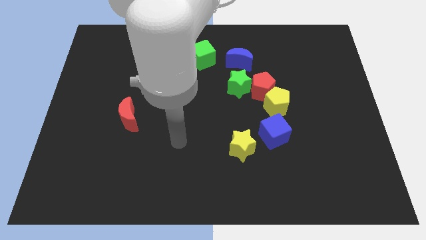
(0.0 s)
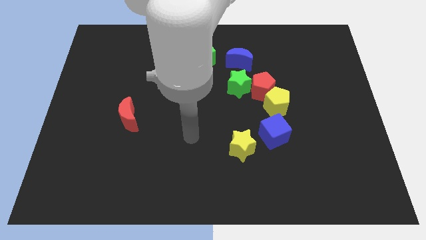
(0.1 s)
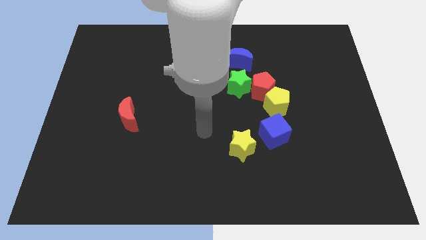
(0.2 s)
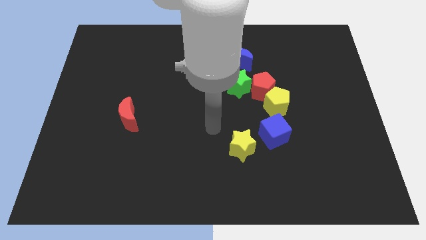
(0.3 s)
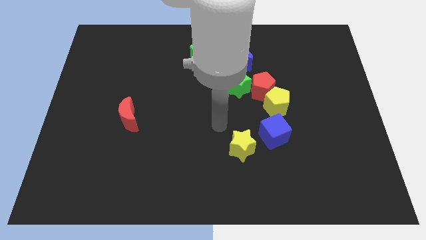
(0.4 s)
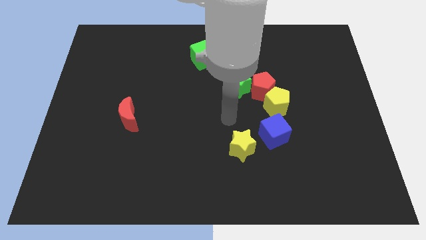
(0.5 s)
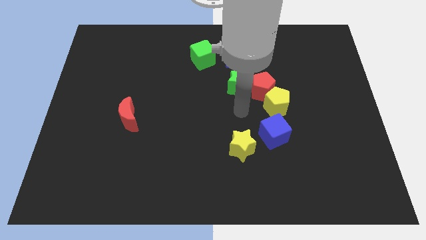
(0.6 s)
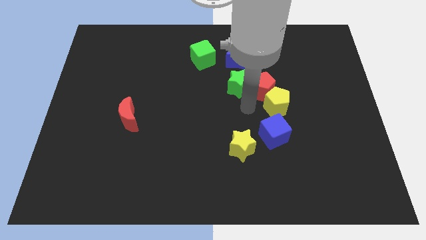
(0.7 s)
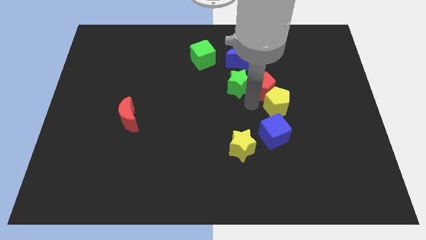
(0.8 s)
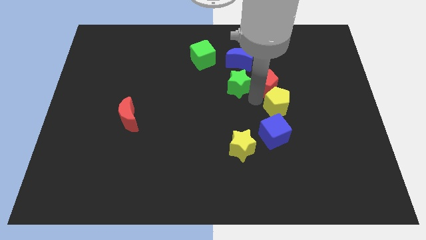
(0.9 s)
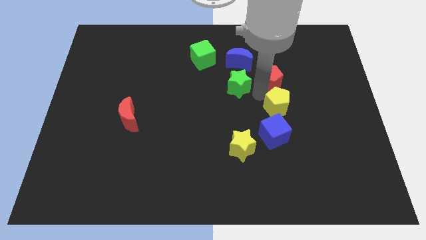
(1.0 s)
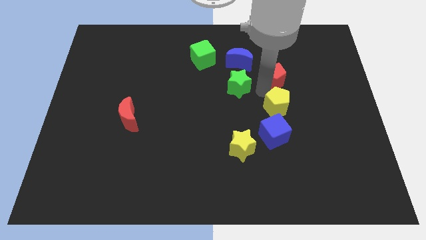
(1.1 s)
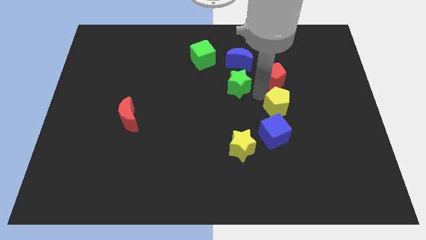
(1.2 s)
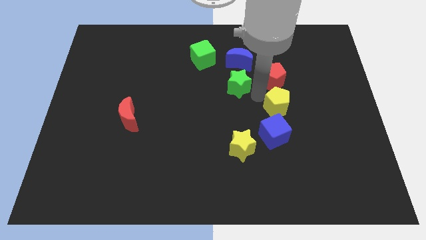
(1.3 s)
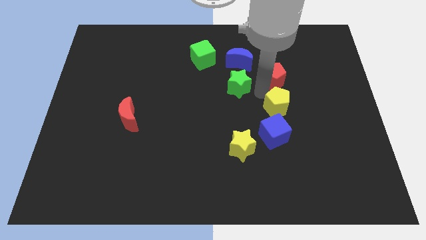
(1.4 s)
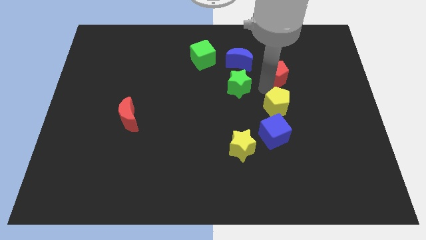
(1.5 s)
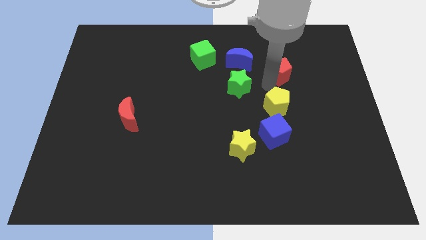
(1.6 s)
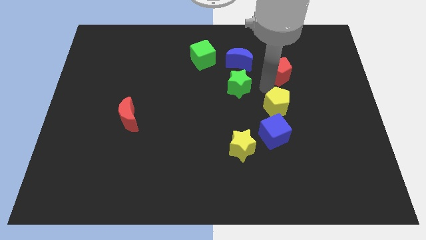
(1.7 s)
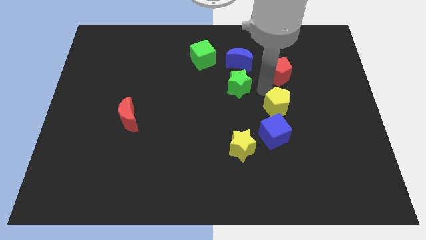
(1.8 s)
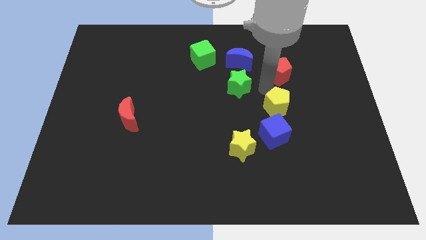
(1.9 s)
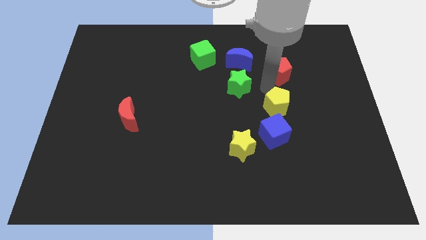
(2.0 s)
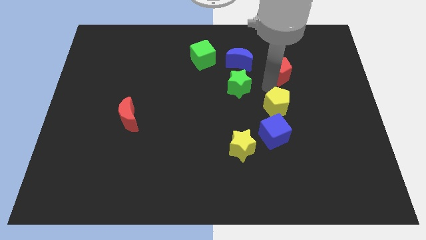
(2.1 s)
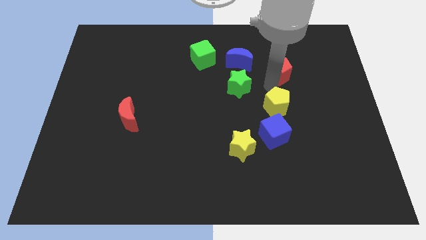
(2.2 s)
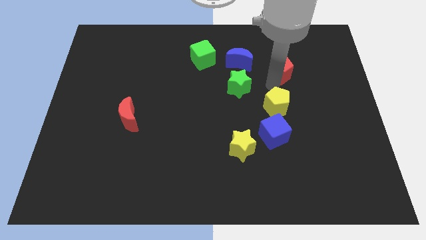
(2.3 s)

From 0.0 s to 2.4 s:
separate the red pentagon from the yellow pentagon and green star

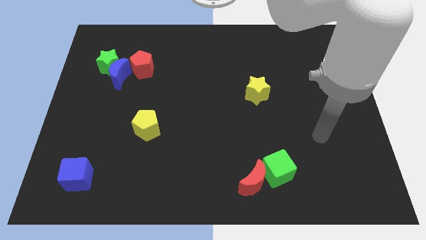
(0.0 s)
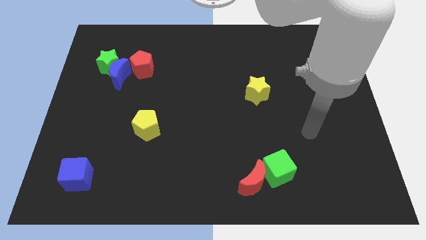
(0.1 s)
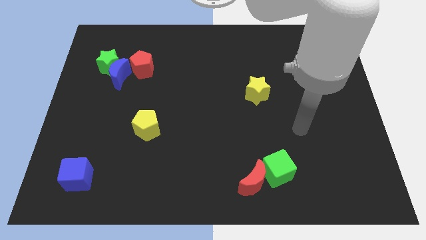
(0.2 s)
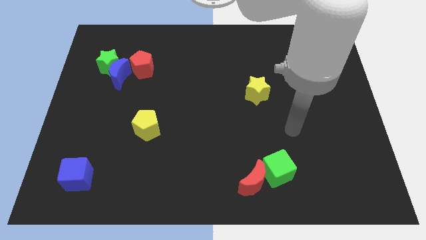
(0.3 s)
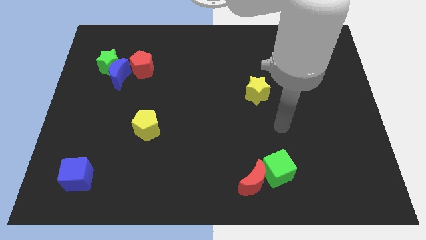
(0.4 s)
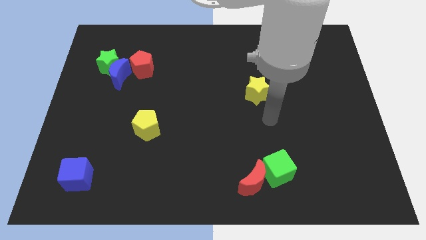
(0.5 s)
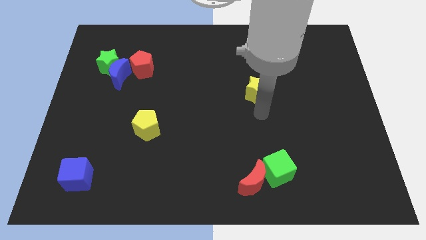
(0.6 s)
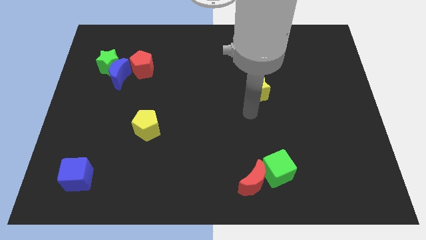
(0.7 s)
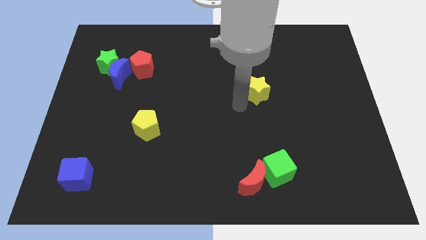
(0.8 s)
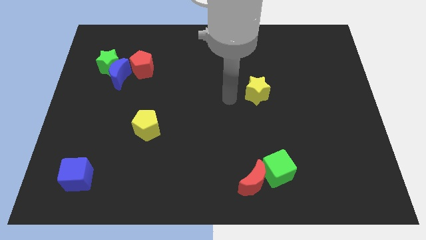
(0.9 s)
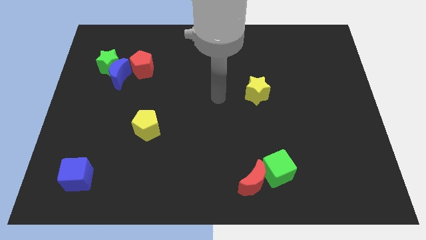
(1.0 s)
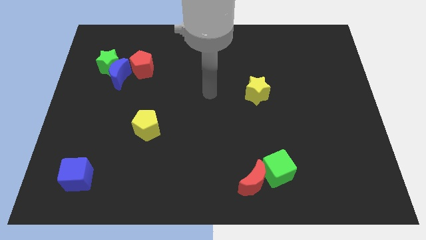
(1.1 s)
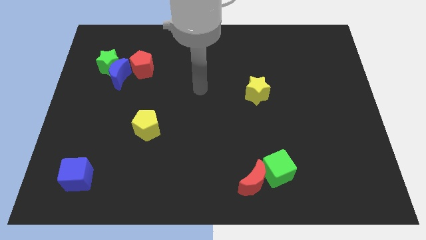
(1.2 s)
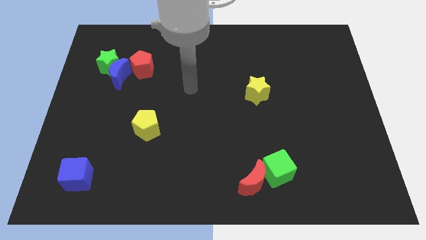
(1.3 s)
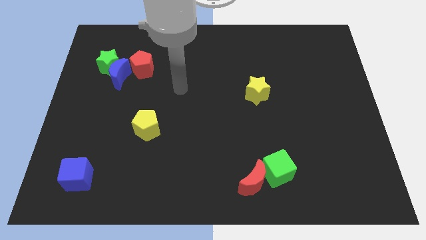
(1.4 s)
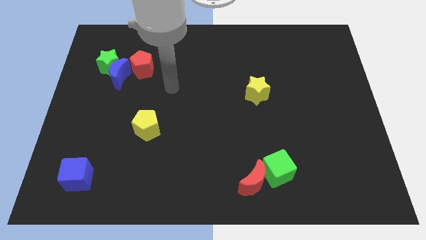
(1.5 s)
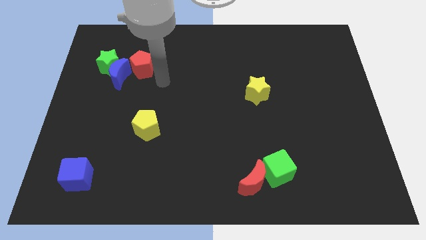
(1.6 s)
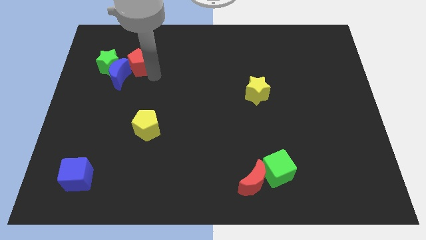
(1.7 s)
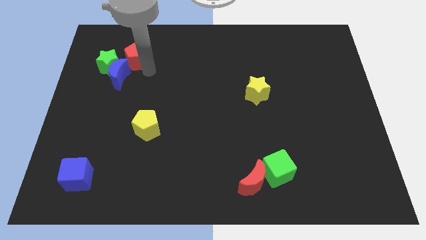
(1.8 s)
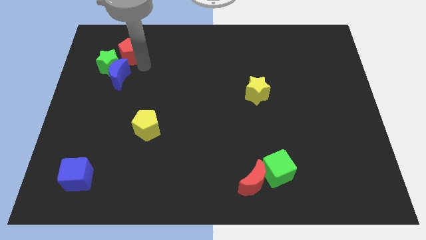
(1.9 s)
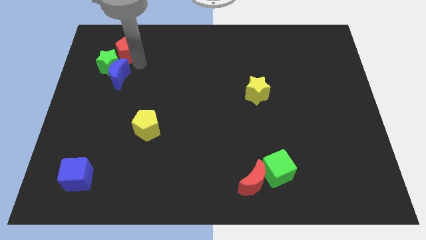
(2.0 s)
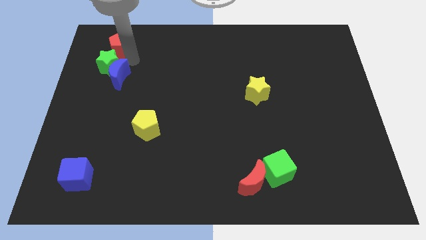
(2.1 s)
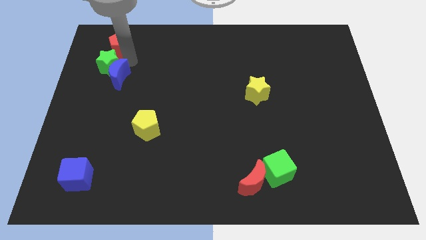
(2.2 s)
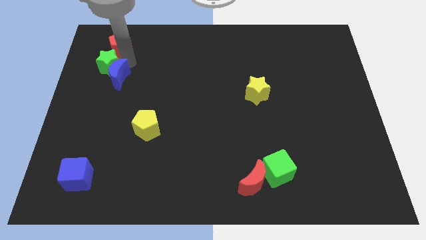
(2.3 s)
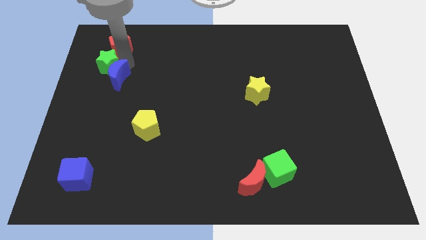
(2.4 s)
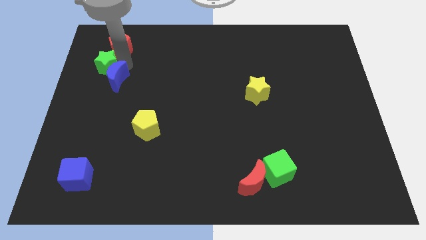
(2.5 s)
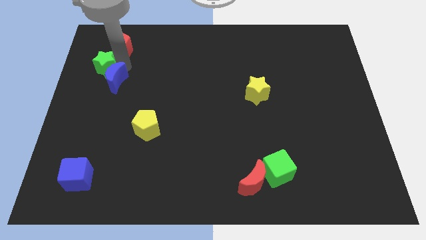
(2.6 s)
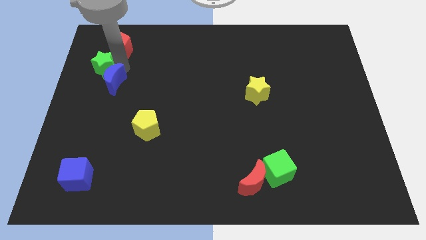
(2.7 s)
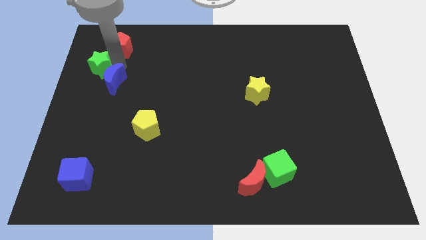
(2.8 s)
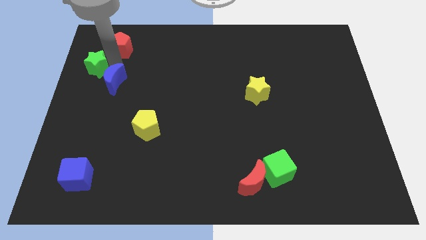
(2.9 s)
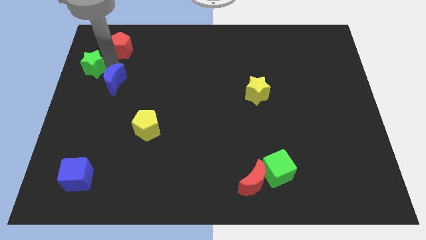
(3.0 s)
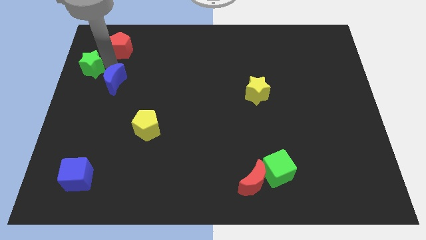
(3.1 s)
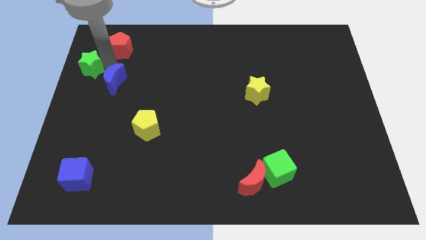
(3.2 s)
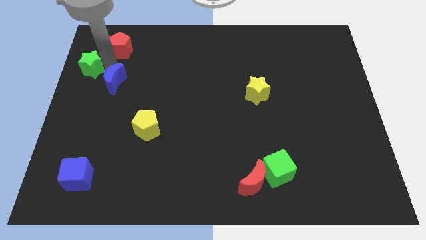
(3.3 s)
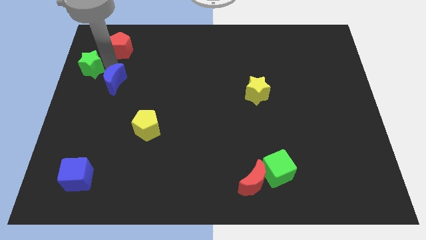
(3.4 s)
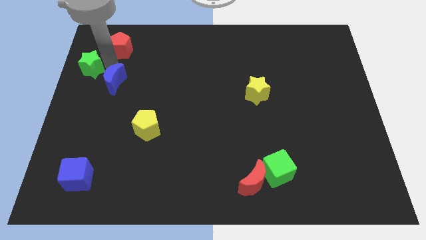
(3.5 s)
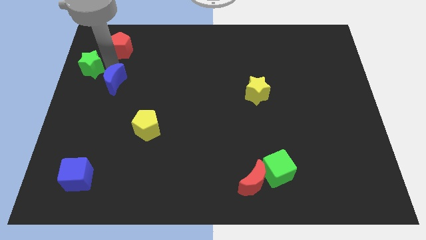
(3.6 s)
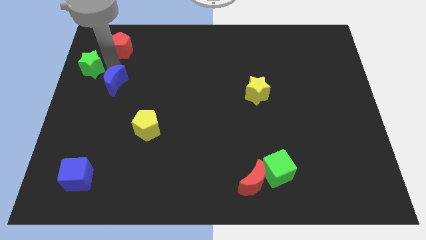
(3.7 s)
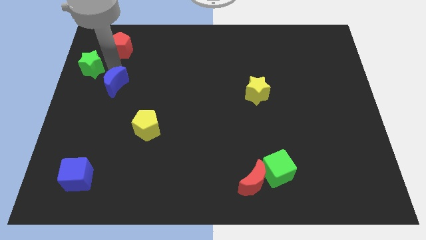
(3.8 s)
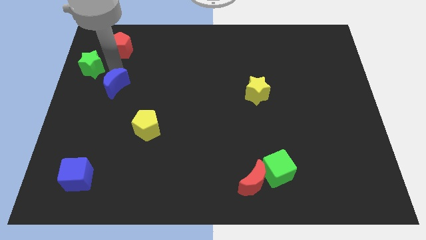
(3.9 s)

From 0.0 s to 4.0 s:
move the blue moon away from the green star and red pentagon

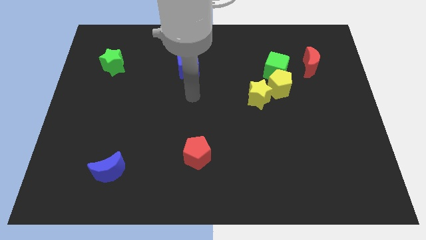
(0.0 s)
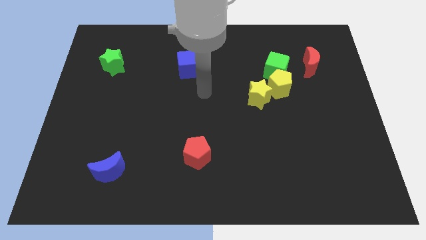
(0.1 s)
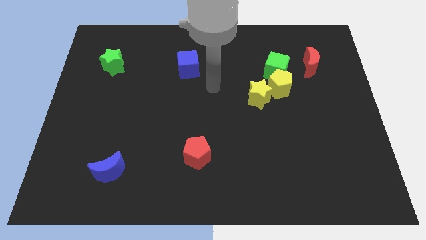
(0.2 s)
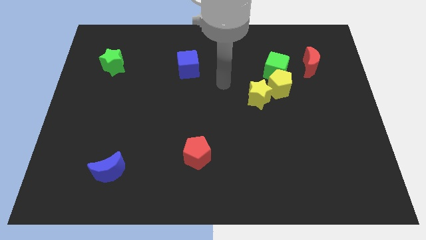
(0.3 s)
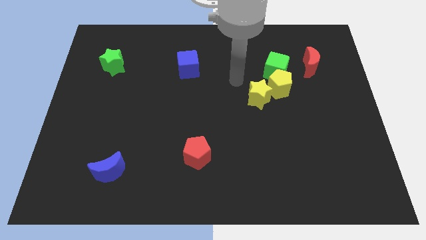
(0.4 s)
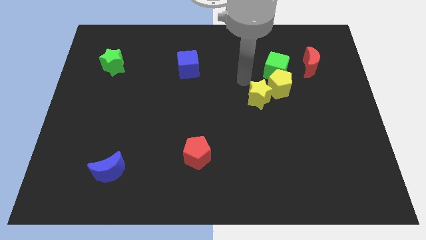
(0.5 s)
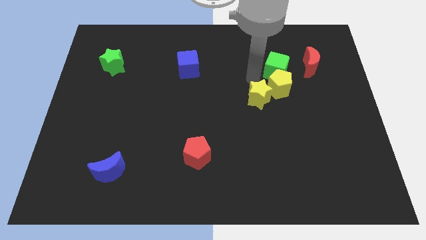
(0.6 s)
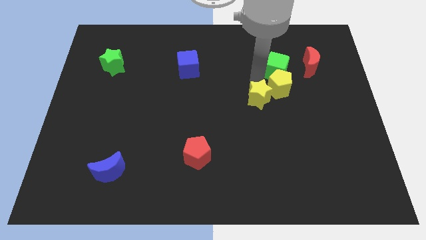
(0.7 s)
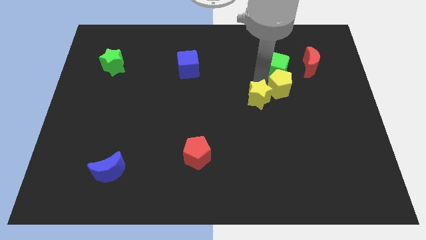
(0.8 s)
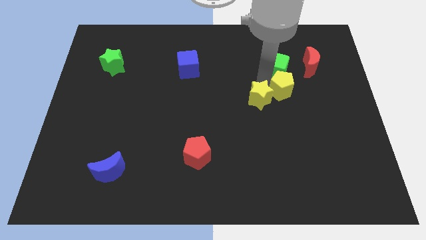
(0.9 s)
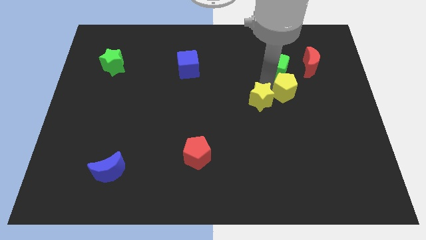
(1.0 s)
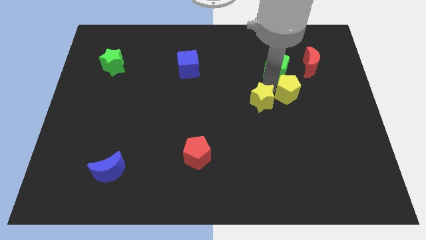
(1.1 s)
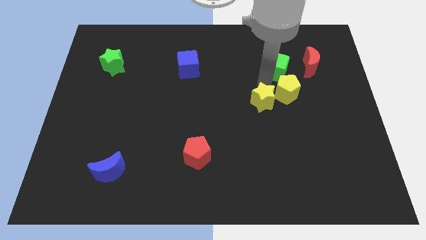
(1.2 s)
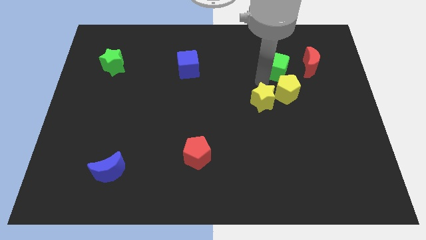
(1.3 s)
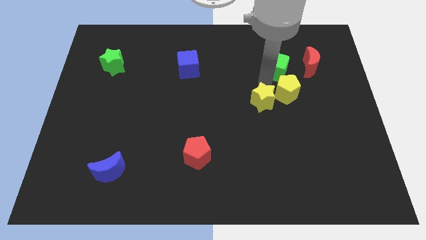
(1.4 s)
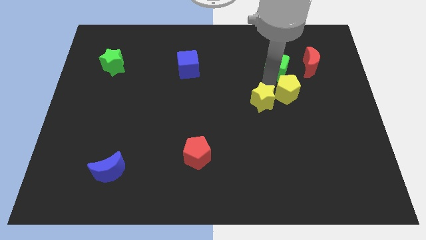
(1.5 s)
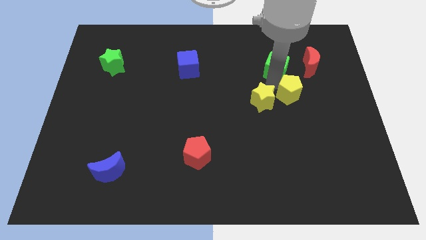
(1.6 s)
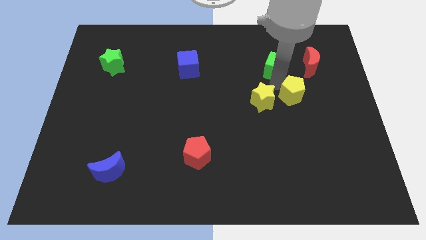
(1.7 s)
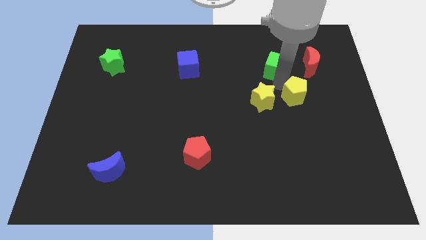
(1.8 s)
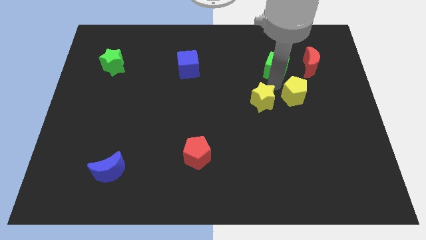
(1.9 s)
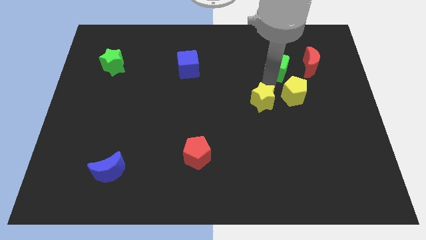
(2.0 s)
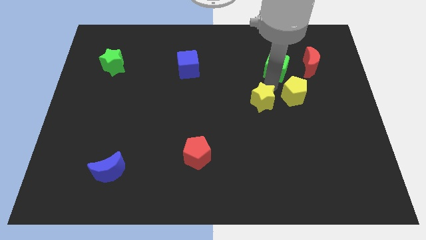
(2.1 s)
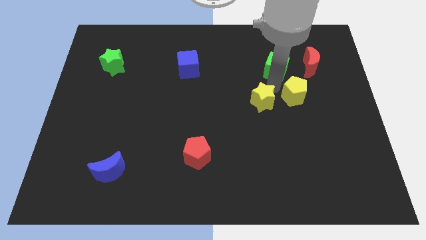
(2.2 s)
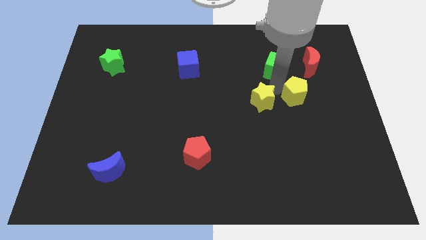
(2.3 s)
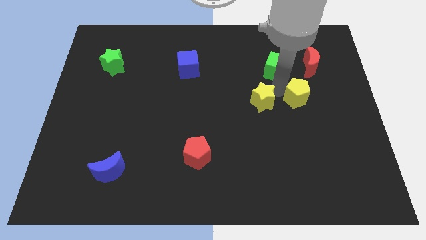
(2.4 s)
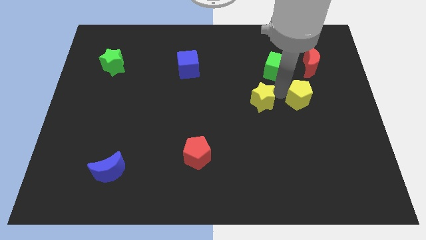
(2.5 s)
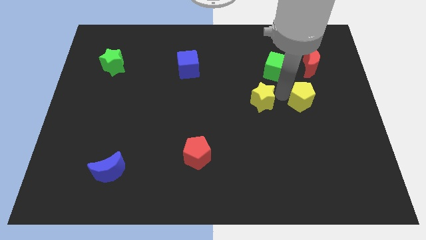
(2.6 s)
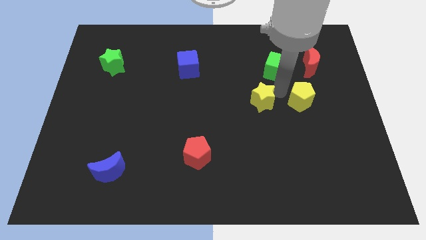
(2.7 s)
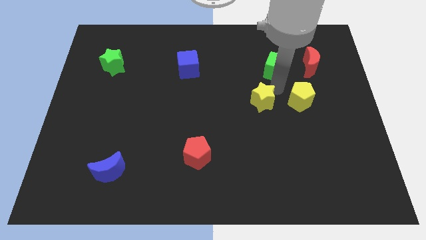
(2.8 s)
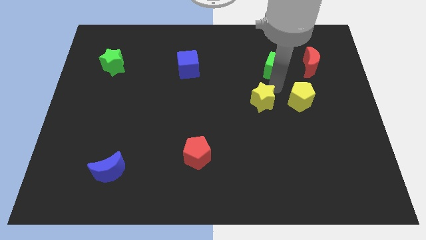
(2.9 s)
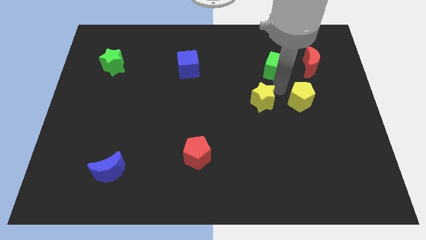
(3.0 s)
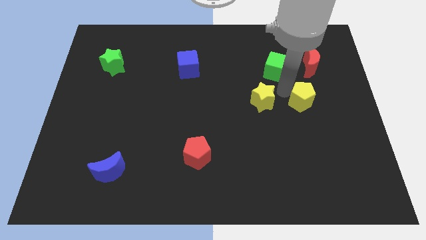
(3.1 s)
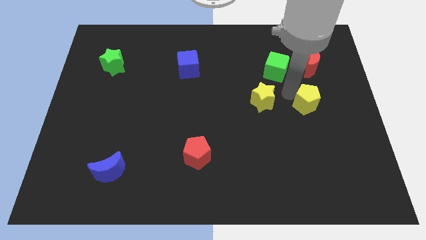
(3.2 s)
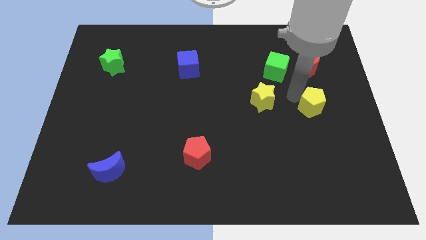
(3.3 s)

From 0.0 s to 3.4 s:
pull the yellow pentagon apart from the green cube and yellow star
